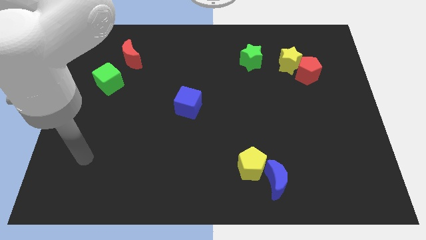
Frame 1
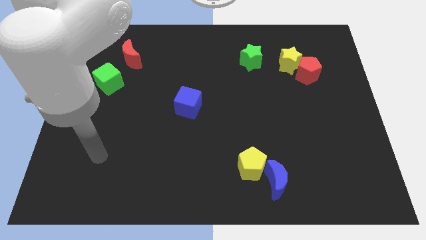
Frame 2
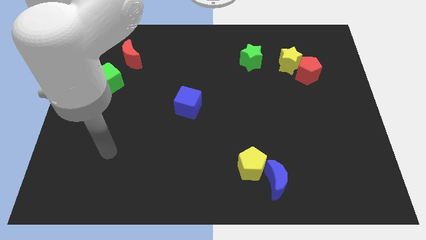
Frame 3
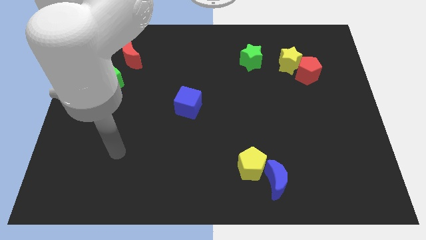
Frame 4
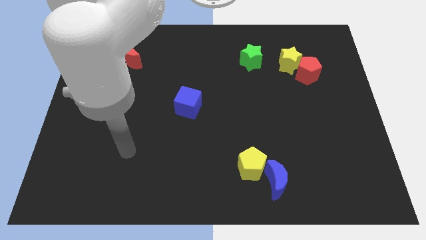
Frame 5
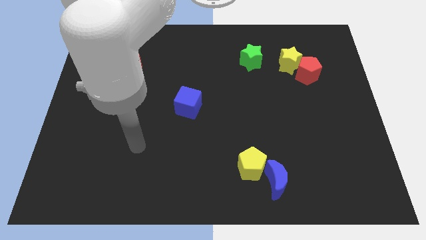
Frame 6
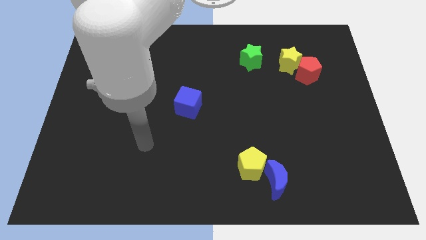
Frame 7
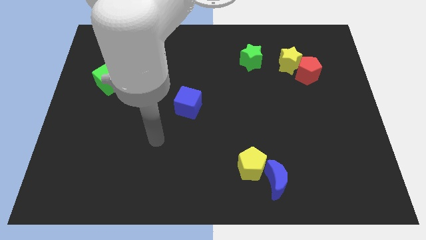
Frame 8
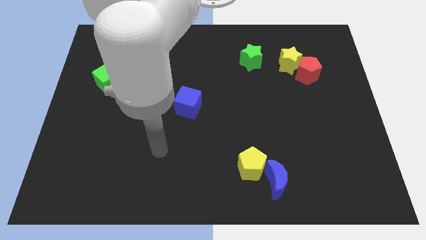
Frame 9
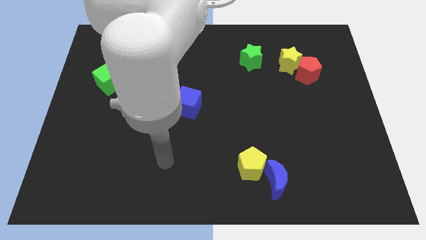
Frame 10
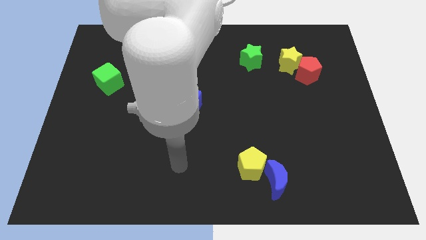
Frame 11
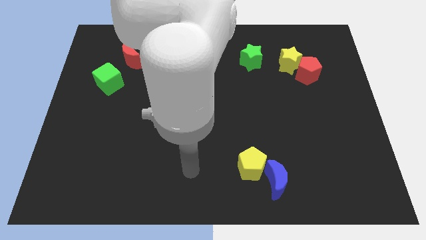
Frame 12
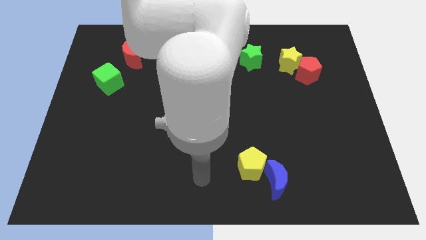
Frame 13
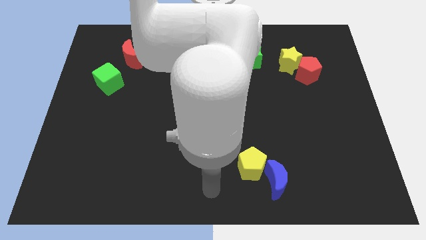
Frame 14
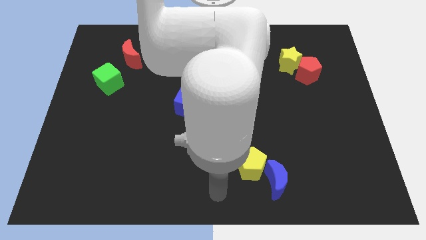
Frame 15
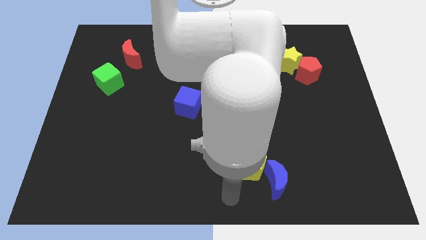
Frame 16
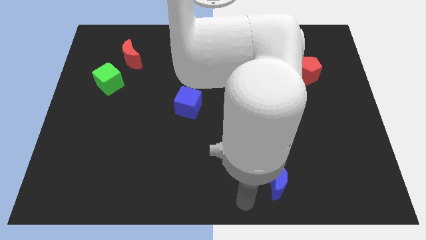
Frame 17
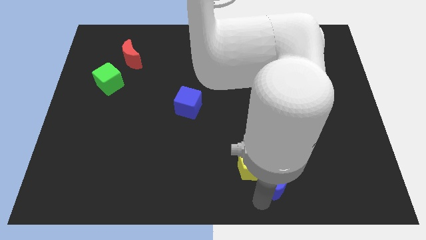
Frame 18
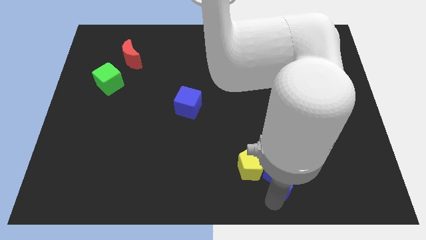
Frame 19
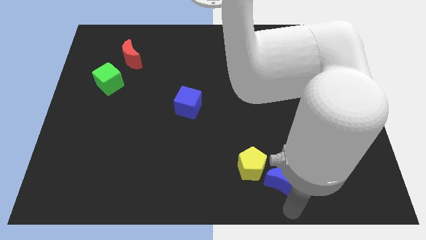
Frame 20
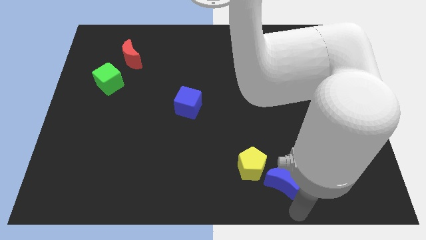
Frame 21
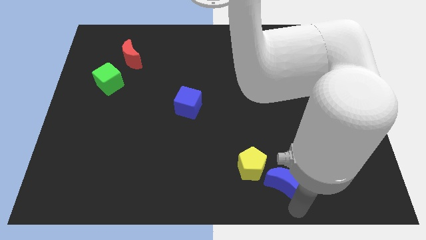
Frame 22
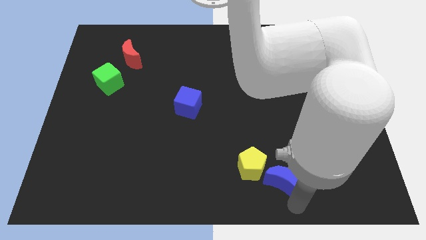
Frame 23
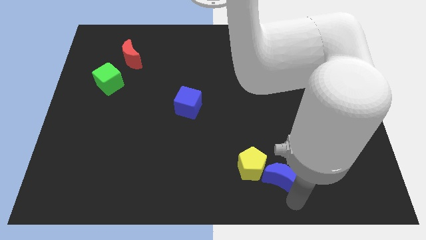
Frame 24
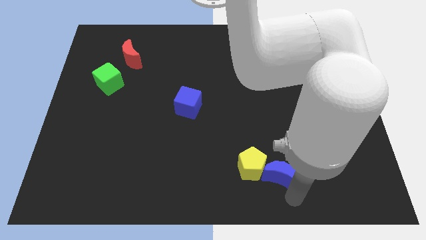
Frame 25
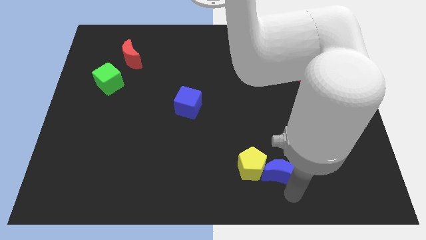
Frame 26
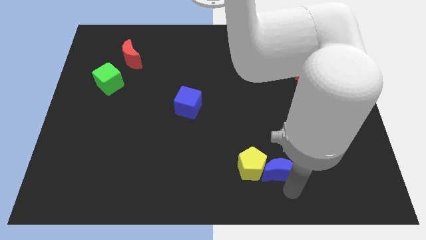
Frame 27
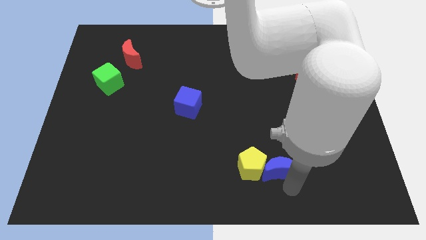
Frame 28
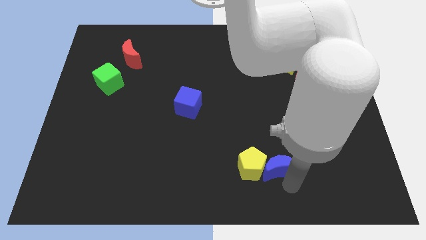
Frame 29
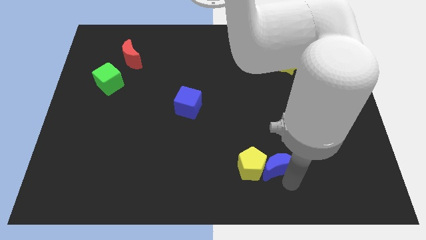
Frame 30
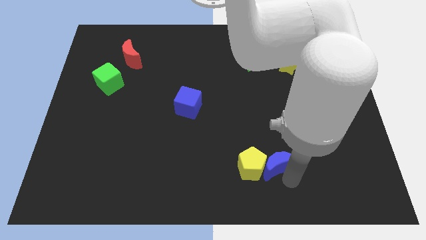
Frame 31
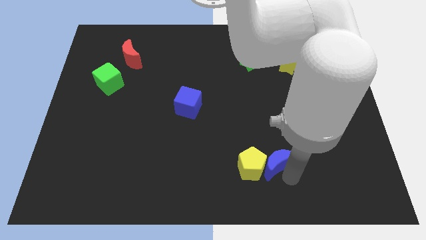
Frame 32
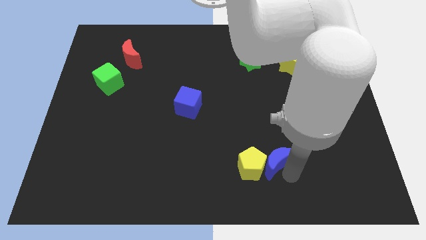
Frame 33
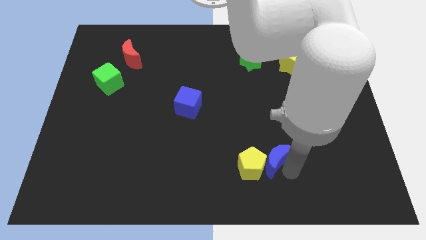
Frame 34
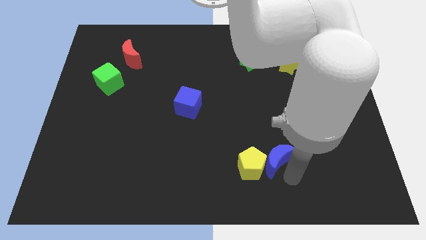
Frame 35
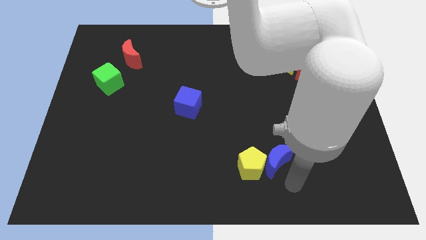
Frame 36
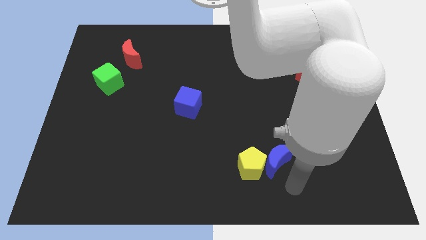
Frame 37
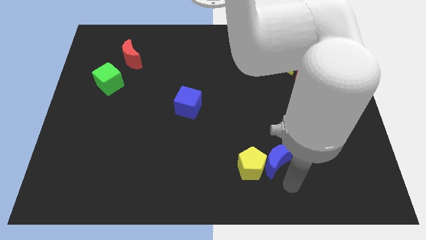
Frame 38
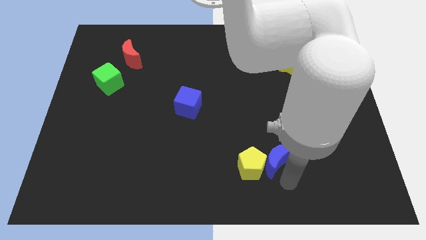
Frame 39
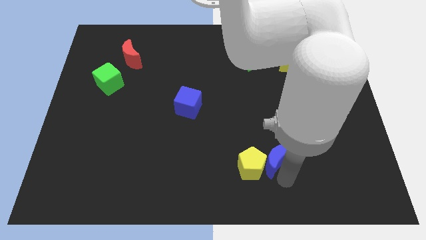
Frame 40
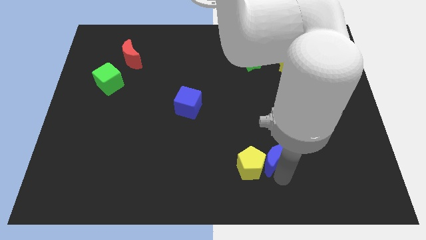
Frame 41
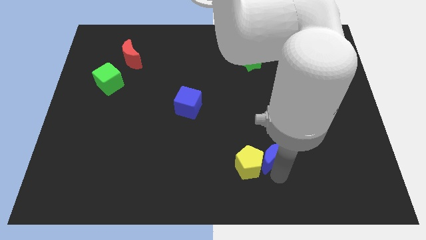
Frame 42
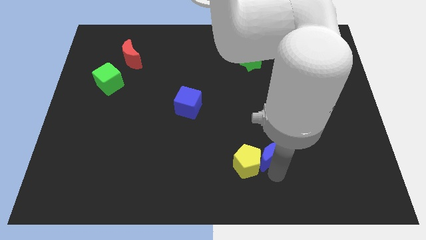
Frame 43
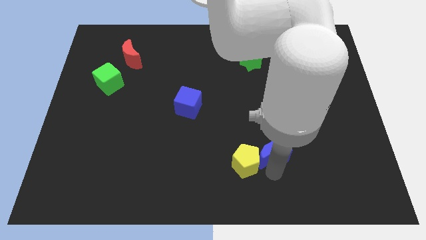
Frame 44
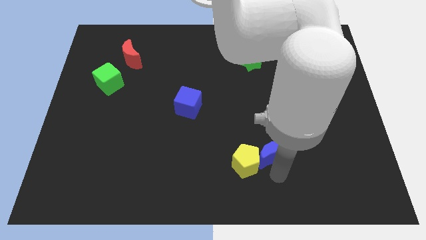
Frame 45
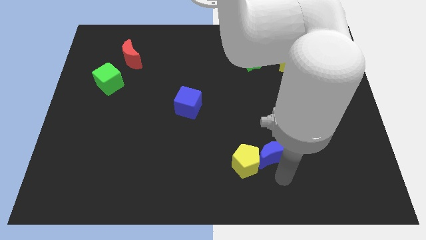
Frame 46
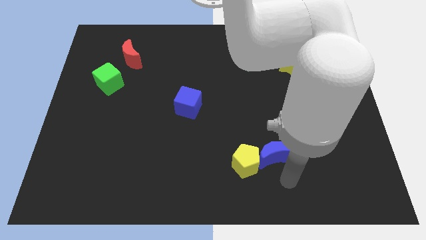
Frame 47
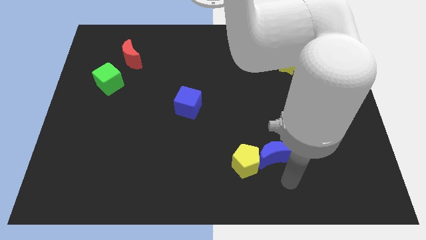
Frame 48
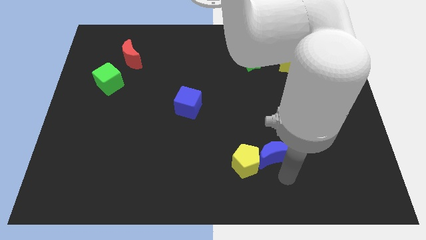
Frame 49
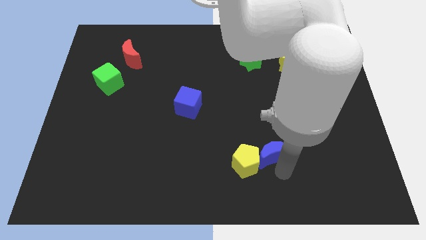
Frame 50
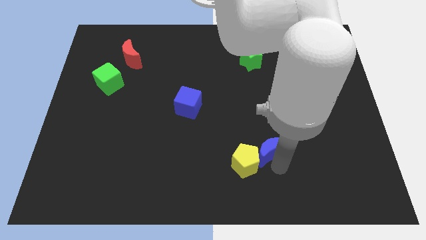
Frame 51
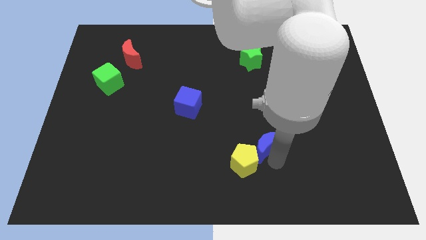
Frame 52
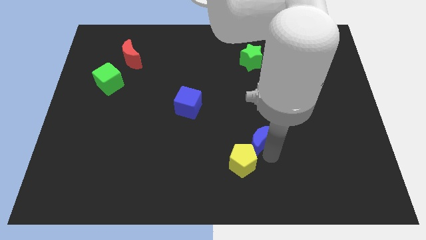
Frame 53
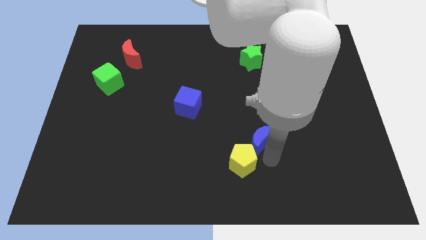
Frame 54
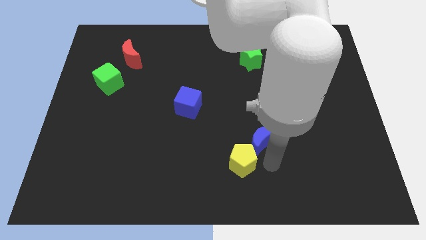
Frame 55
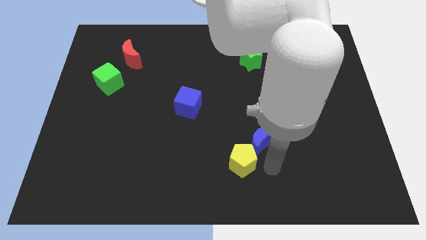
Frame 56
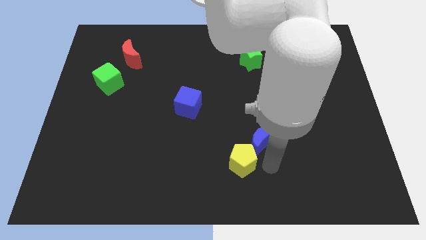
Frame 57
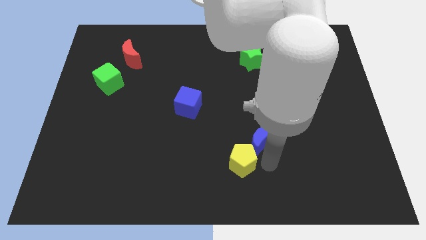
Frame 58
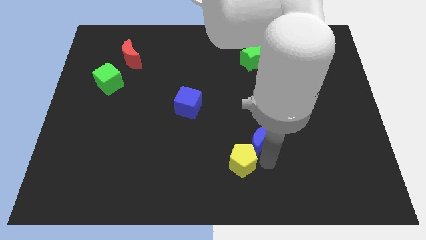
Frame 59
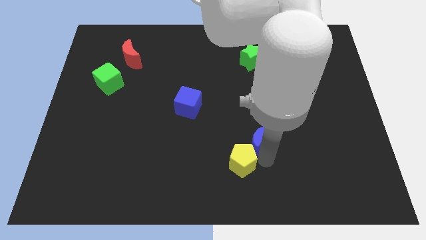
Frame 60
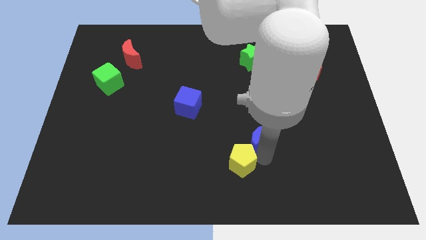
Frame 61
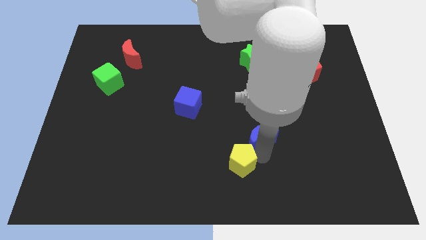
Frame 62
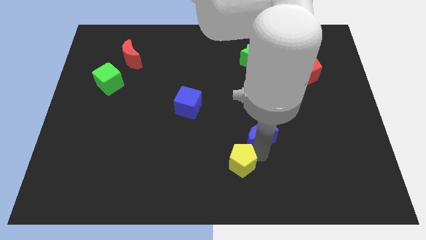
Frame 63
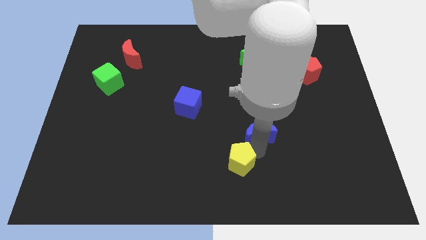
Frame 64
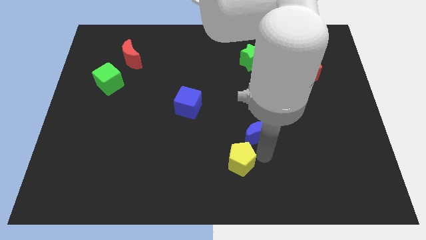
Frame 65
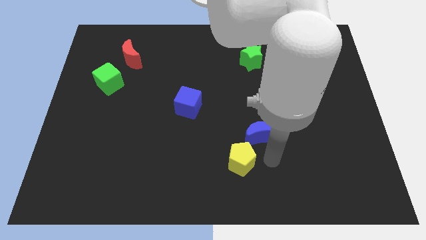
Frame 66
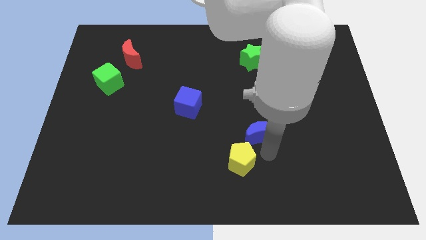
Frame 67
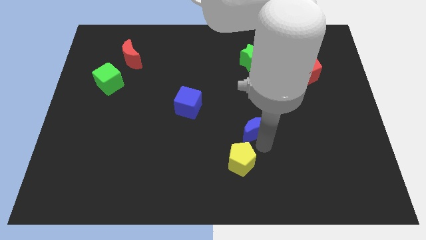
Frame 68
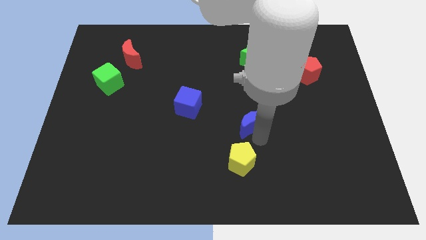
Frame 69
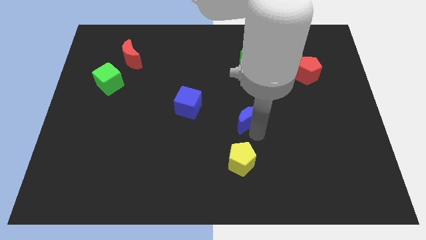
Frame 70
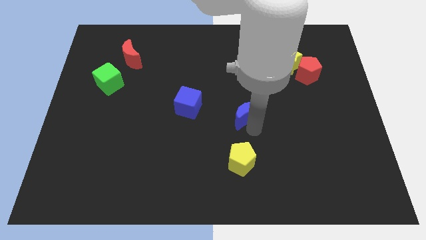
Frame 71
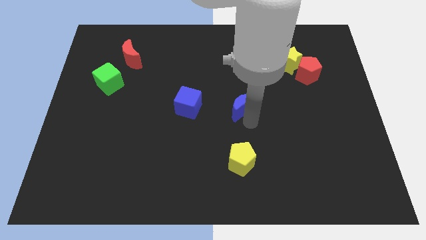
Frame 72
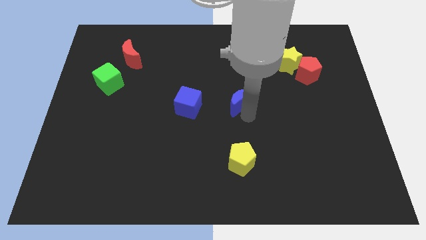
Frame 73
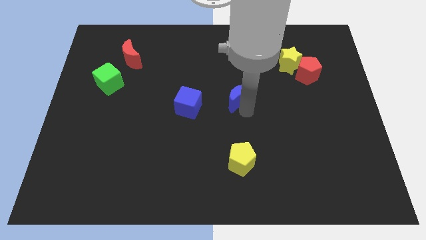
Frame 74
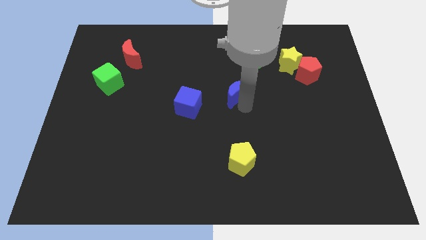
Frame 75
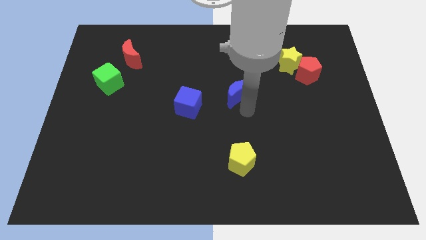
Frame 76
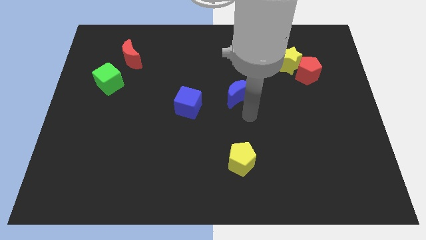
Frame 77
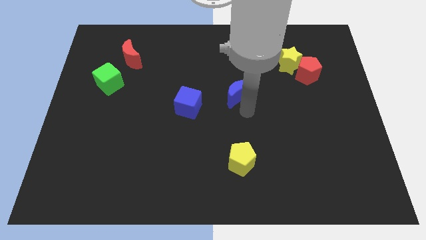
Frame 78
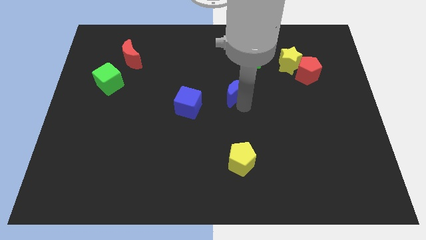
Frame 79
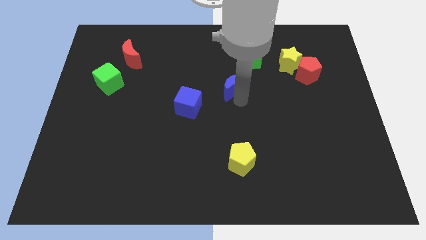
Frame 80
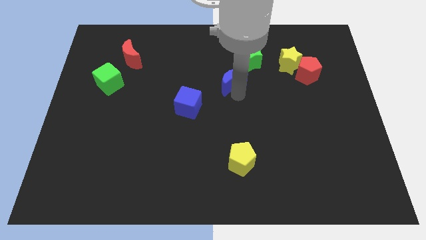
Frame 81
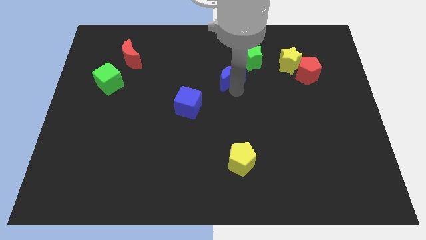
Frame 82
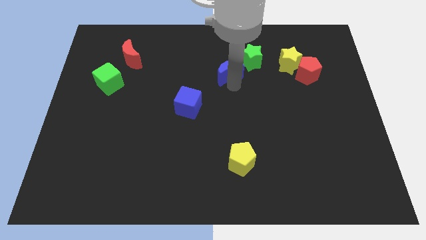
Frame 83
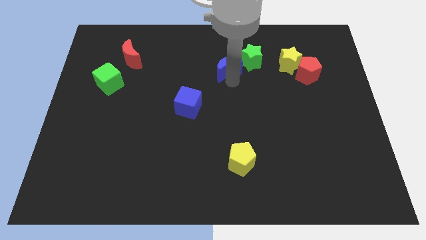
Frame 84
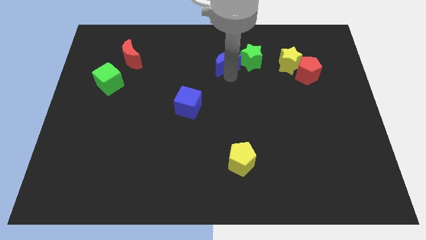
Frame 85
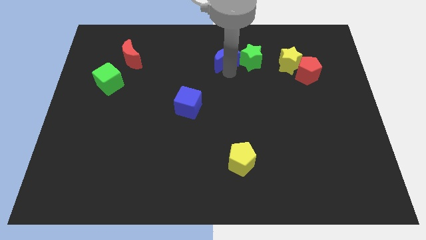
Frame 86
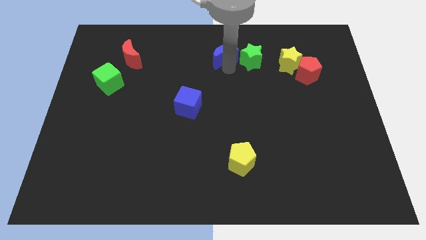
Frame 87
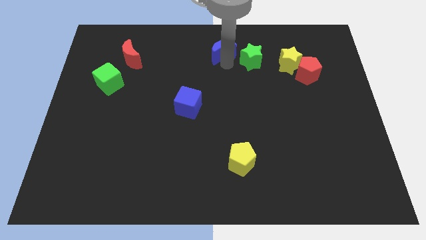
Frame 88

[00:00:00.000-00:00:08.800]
push the blue moon to the top
